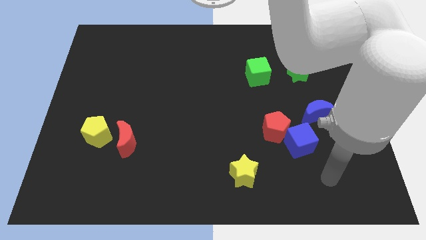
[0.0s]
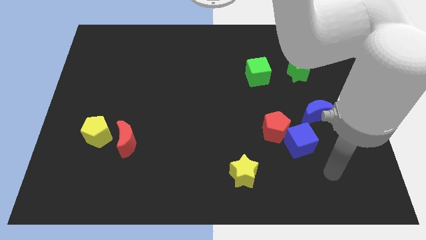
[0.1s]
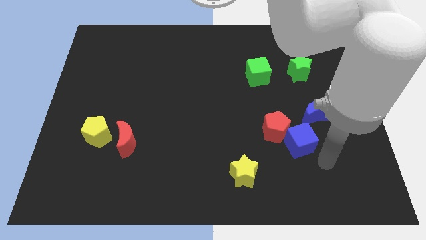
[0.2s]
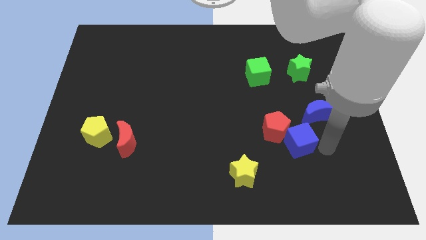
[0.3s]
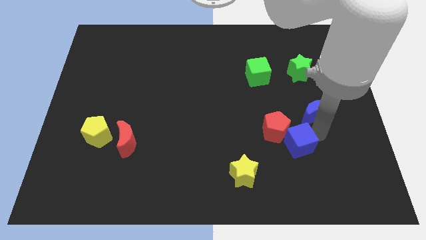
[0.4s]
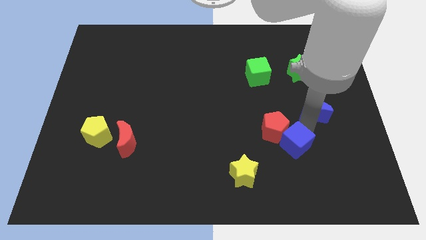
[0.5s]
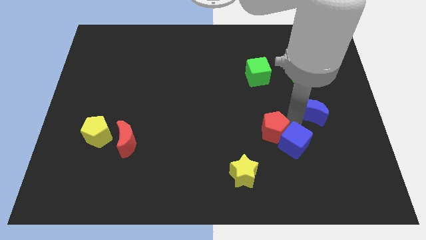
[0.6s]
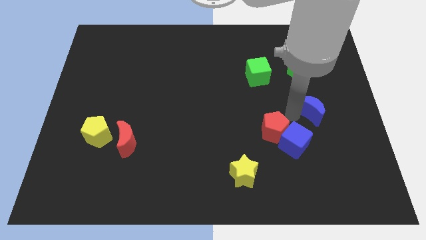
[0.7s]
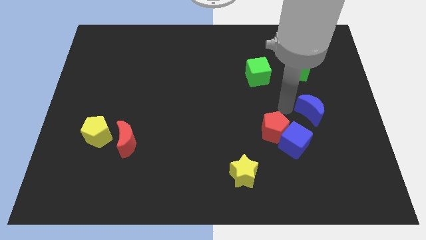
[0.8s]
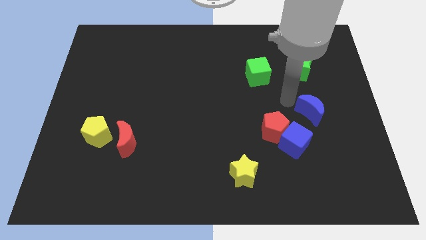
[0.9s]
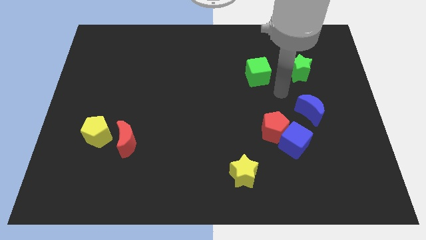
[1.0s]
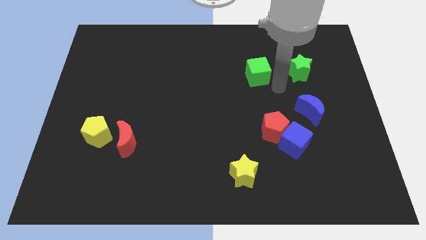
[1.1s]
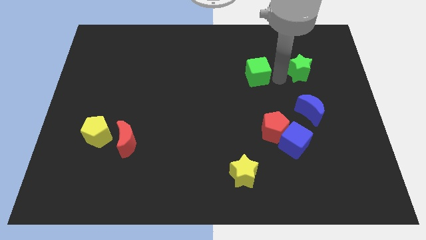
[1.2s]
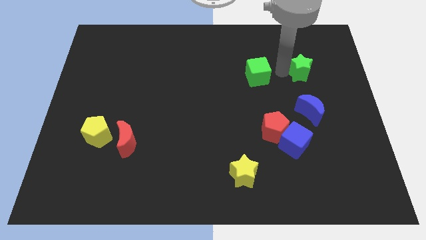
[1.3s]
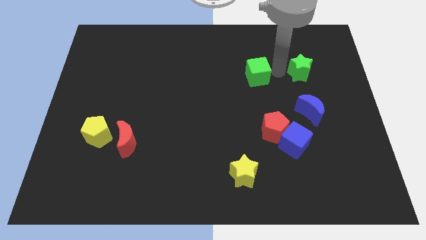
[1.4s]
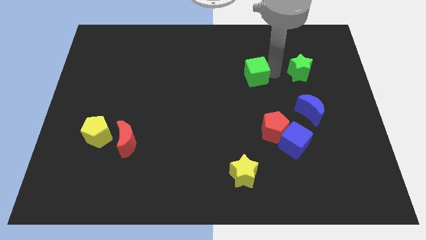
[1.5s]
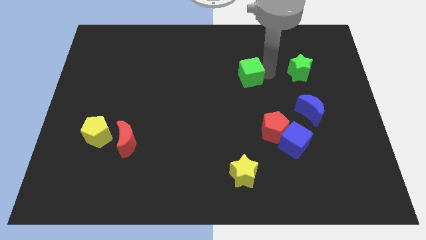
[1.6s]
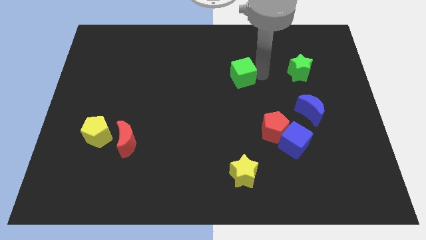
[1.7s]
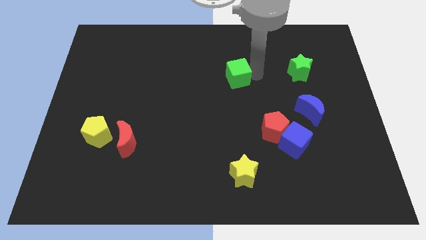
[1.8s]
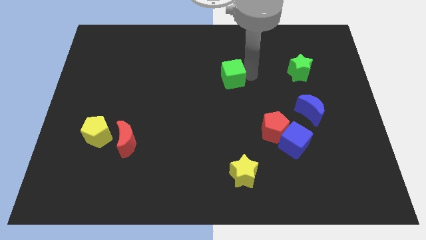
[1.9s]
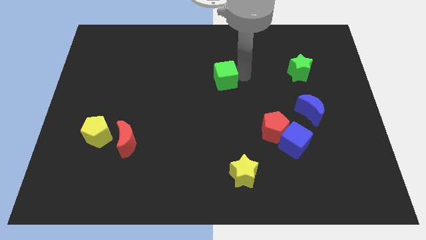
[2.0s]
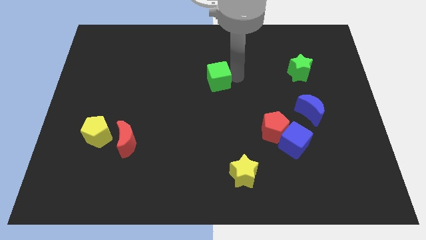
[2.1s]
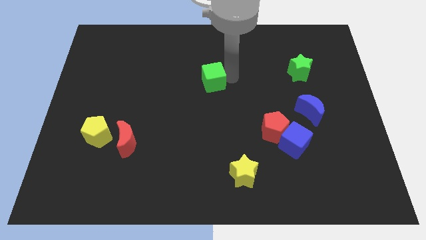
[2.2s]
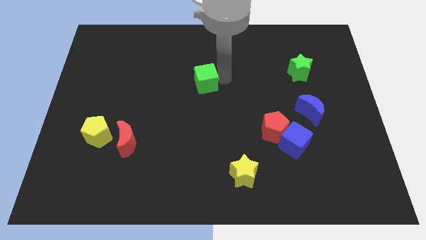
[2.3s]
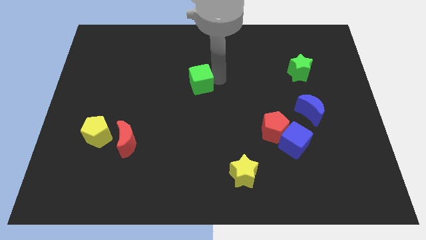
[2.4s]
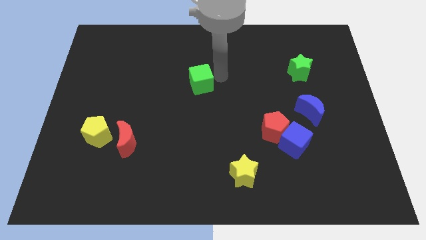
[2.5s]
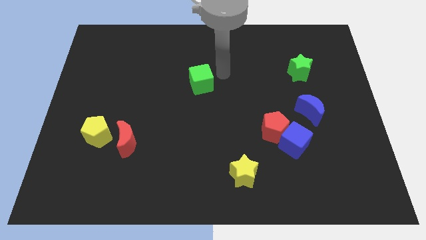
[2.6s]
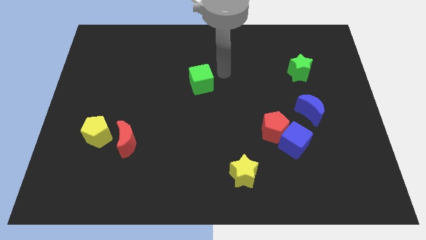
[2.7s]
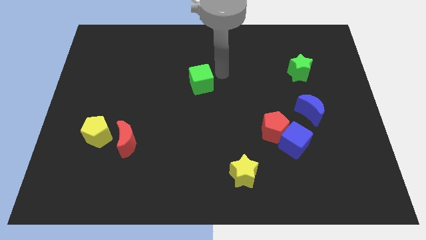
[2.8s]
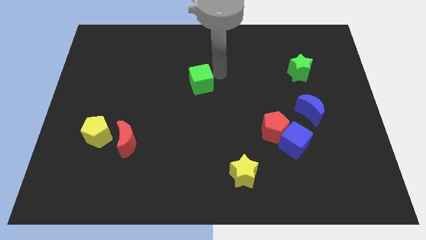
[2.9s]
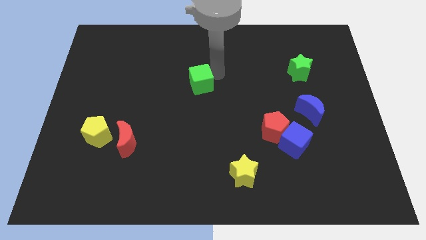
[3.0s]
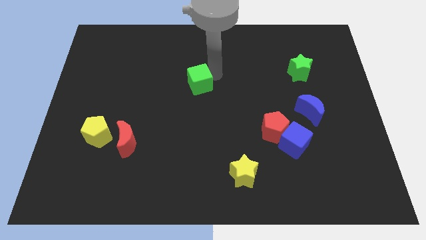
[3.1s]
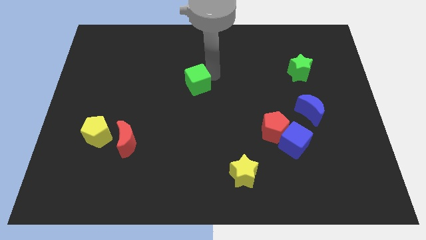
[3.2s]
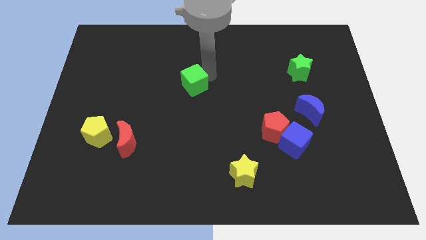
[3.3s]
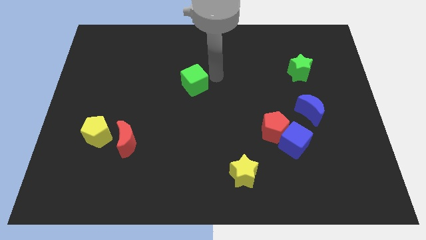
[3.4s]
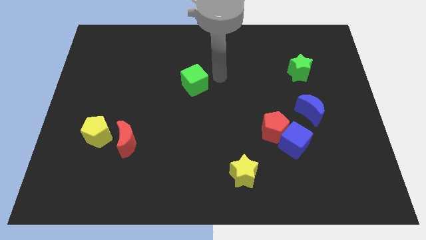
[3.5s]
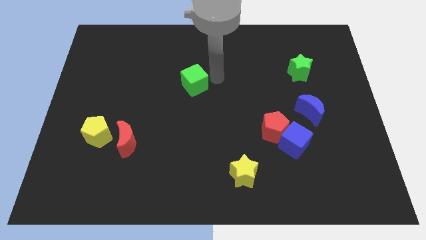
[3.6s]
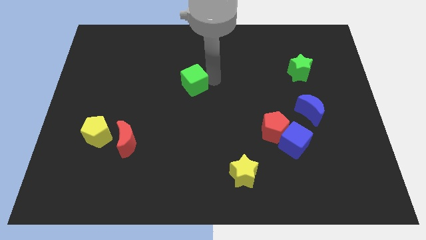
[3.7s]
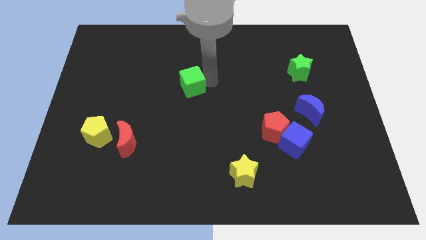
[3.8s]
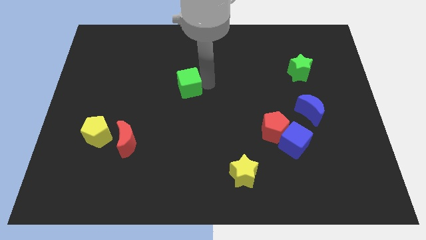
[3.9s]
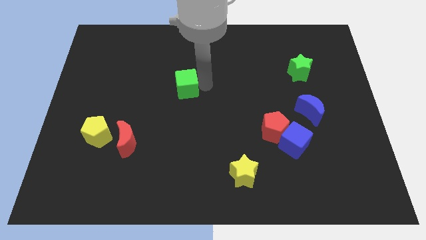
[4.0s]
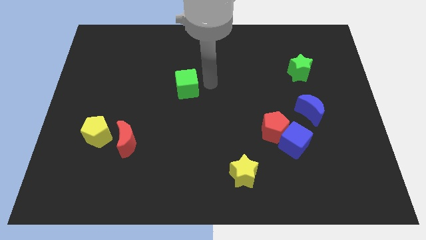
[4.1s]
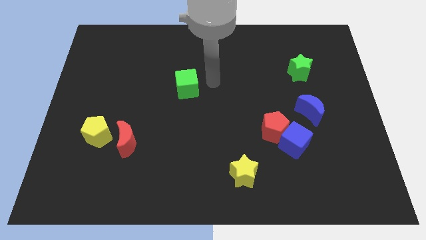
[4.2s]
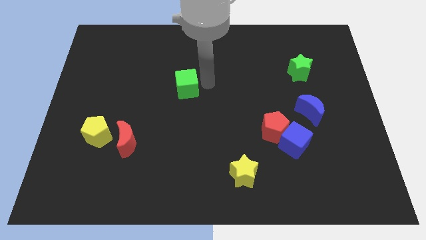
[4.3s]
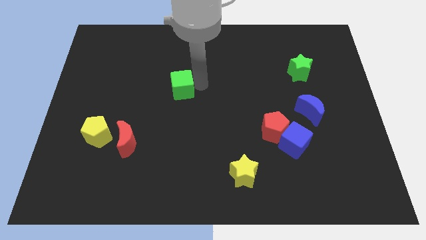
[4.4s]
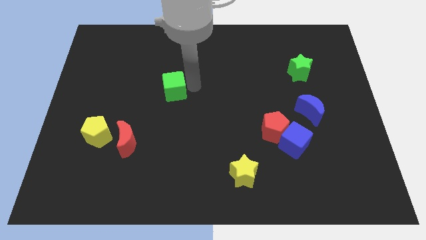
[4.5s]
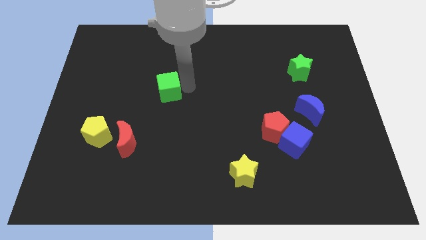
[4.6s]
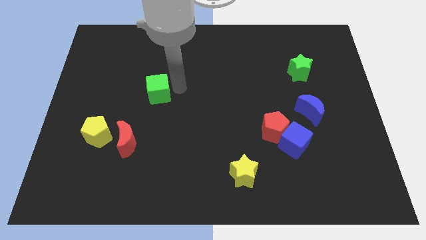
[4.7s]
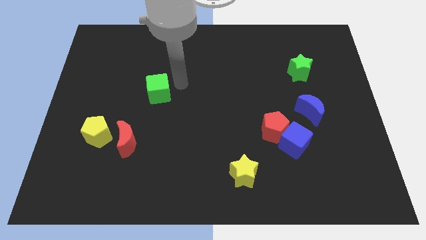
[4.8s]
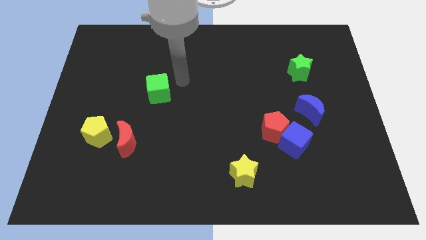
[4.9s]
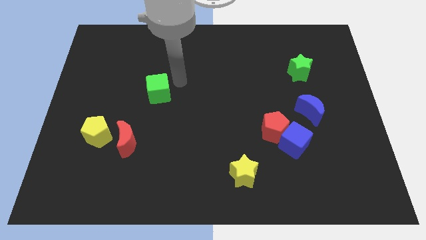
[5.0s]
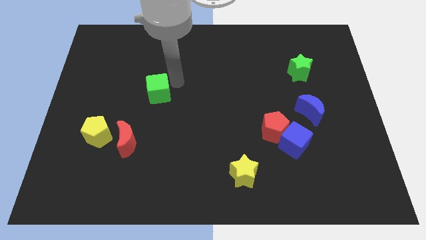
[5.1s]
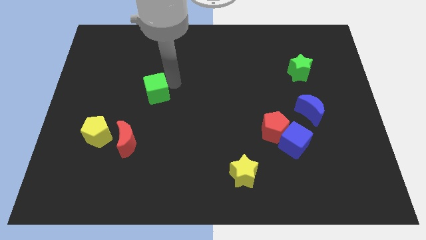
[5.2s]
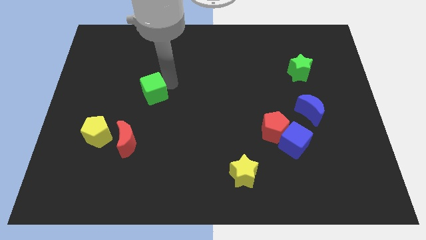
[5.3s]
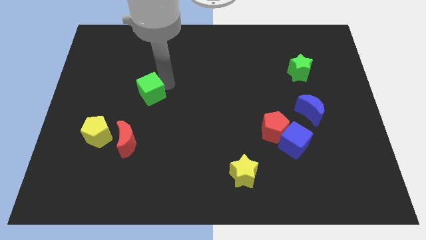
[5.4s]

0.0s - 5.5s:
slide the green cube to the top side of the red moon

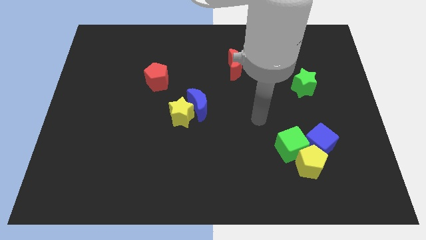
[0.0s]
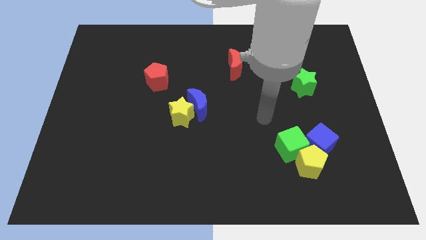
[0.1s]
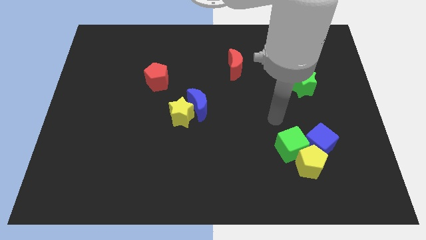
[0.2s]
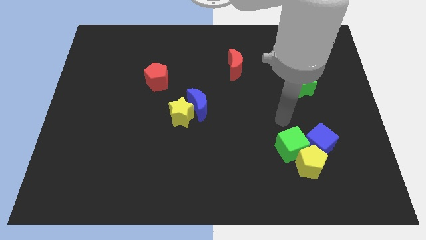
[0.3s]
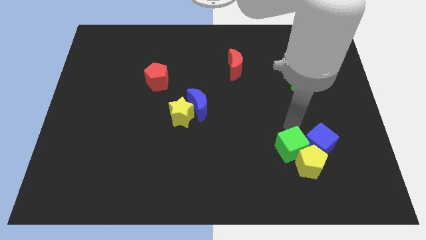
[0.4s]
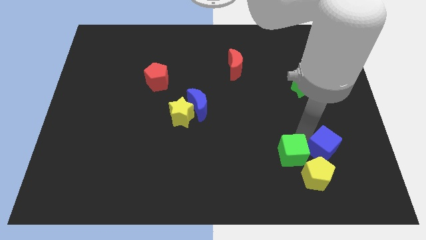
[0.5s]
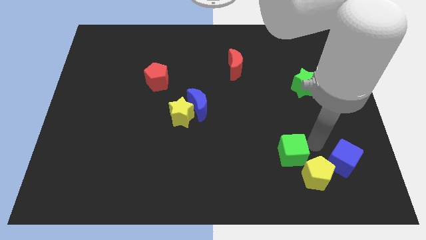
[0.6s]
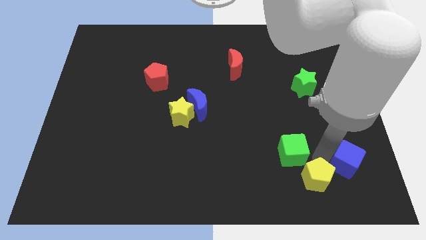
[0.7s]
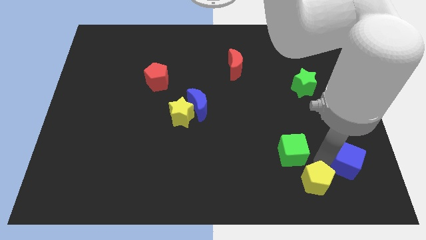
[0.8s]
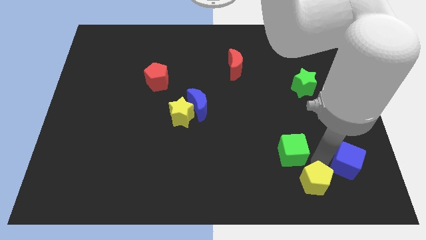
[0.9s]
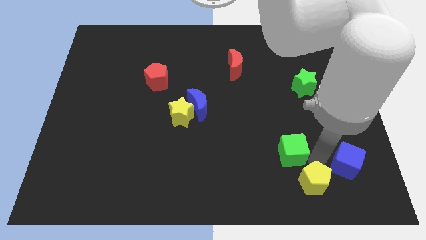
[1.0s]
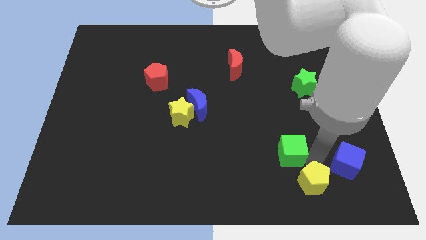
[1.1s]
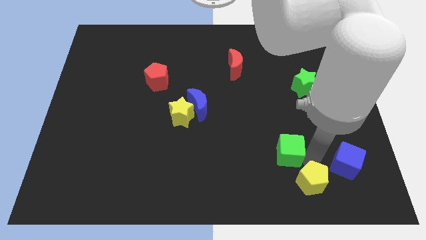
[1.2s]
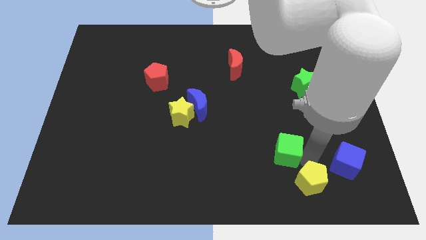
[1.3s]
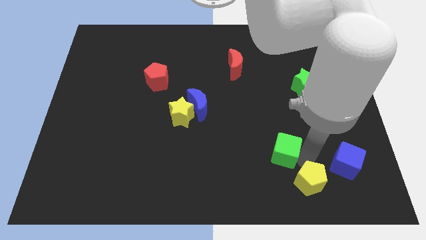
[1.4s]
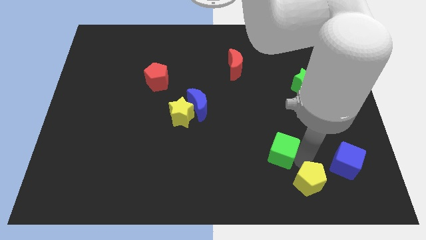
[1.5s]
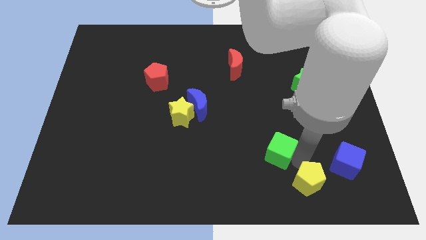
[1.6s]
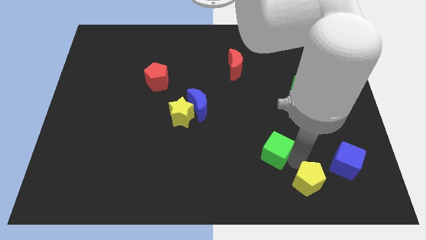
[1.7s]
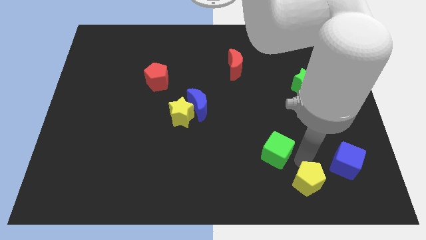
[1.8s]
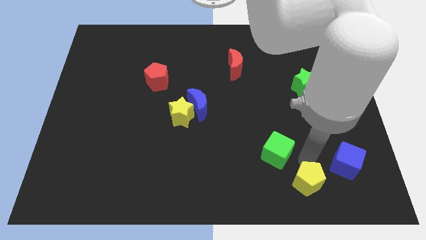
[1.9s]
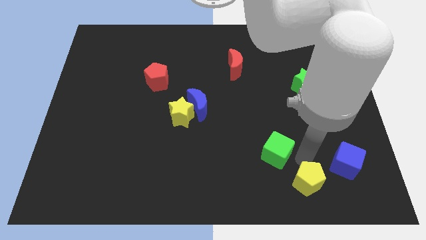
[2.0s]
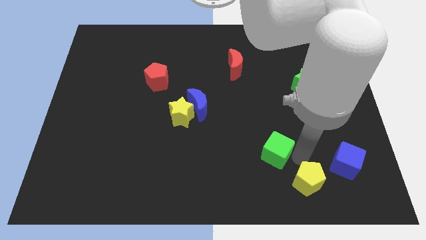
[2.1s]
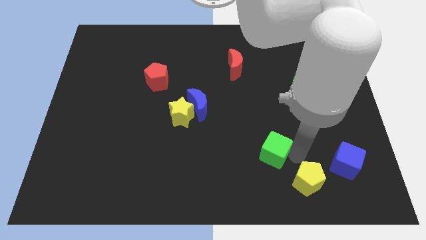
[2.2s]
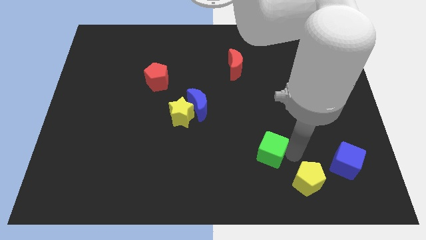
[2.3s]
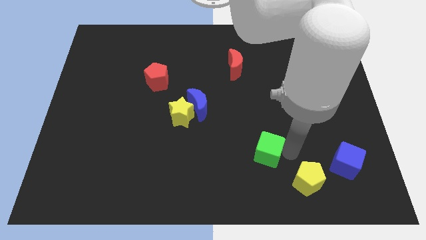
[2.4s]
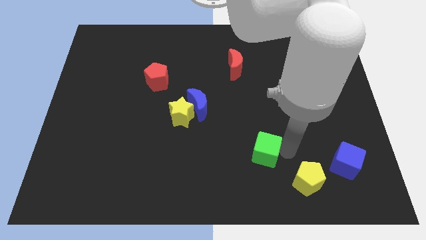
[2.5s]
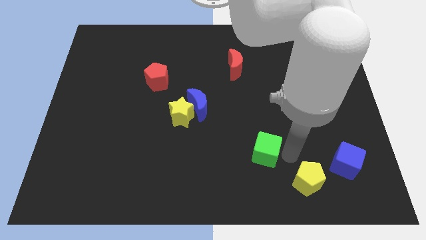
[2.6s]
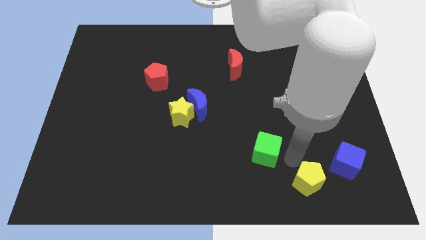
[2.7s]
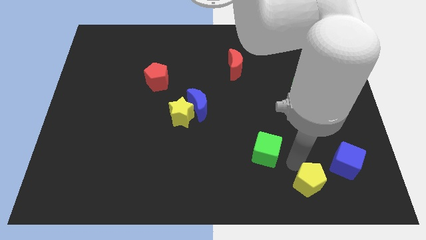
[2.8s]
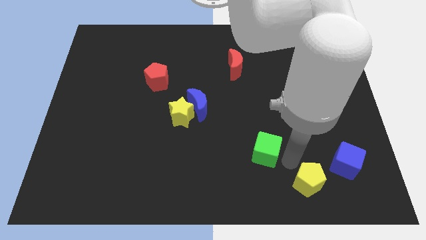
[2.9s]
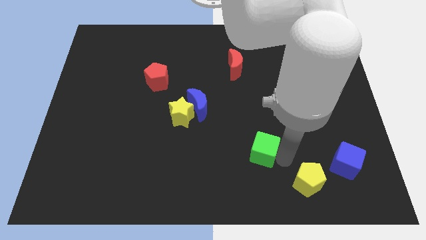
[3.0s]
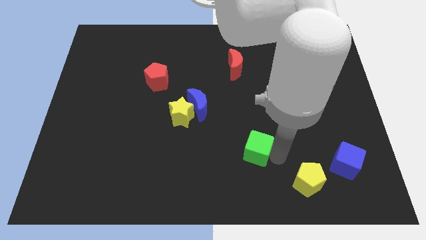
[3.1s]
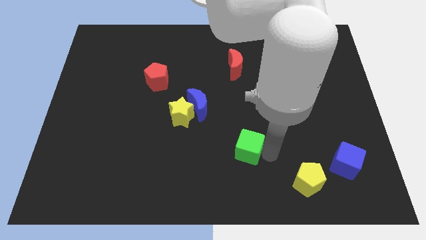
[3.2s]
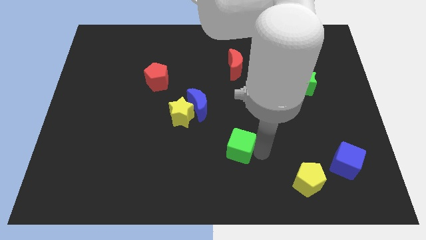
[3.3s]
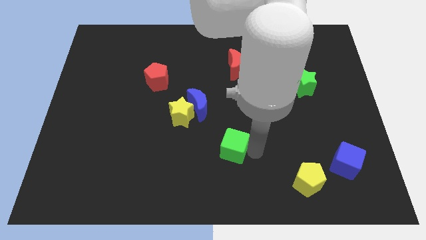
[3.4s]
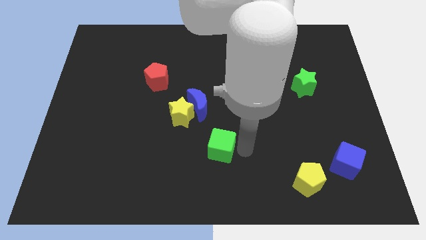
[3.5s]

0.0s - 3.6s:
push the green cube to the bottom of the blue moon
